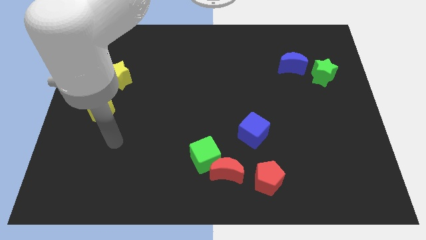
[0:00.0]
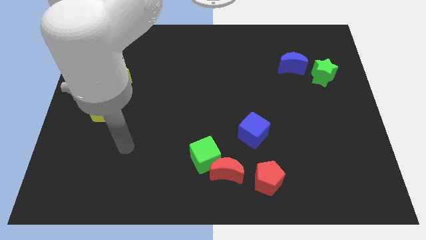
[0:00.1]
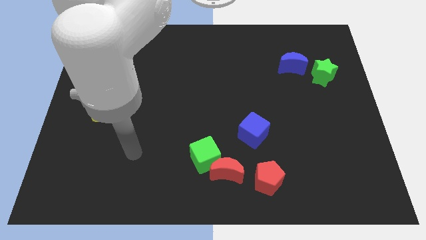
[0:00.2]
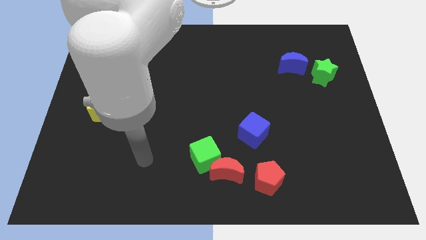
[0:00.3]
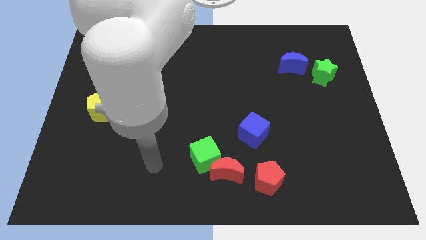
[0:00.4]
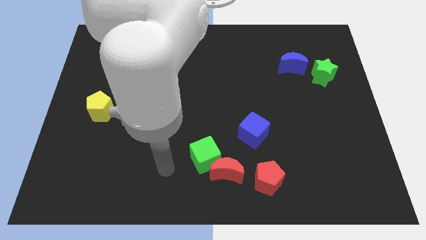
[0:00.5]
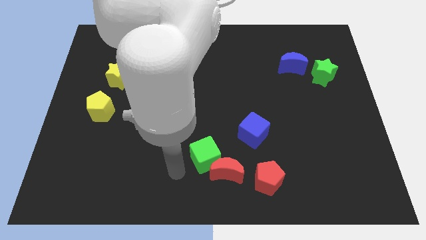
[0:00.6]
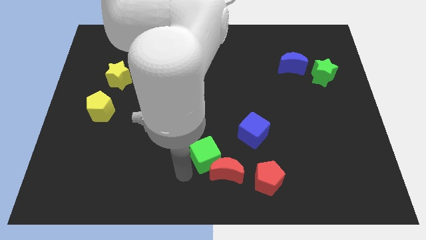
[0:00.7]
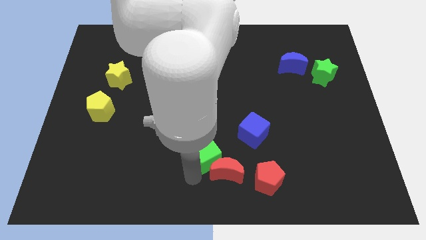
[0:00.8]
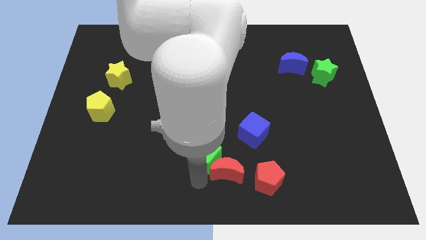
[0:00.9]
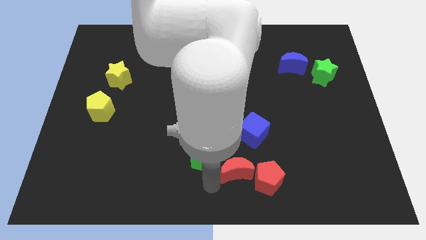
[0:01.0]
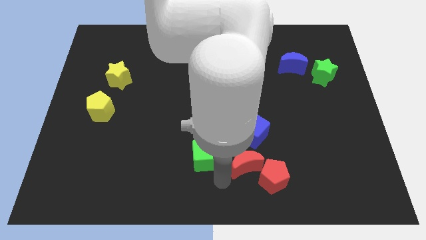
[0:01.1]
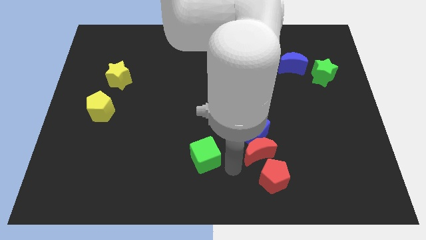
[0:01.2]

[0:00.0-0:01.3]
separate the green cube from the red moon

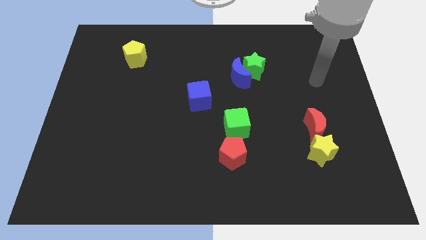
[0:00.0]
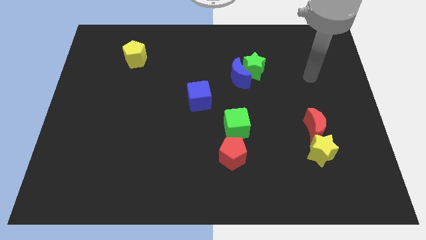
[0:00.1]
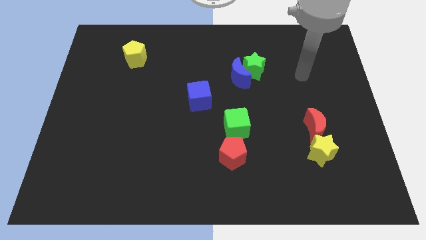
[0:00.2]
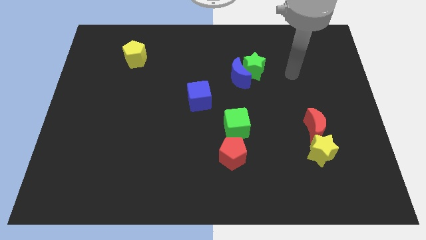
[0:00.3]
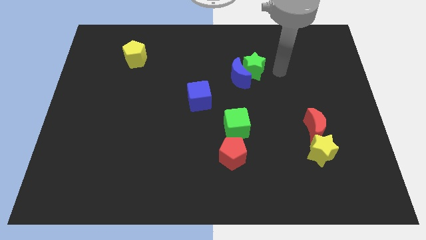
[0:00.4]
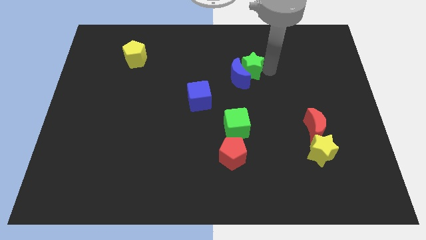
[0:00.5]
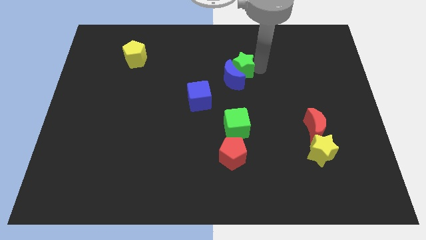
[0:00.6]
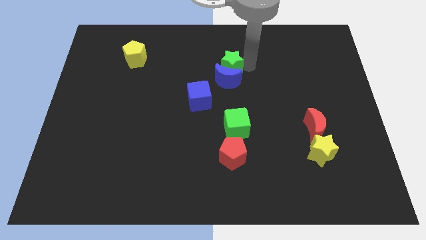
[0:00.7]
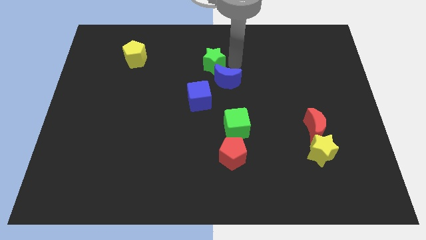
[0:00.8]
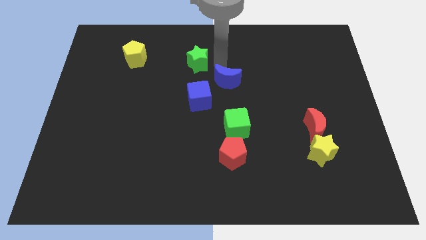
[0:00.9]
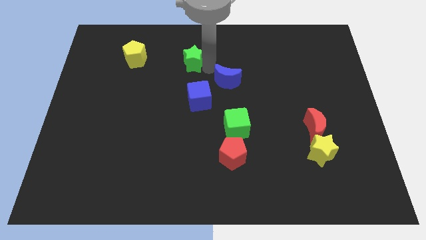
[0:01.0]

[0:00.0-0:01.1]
pull the blue moon apart from the green star

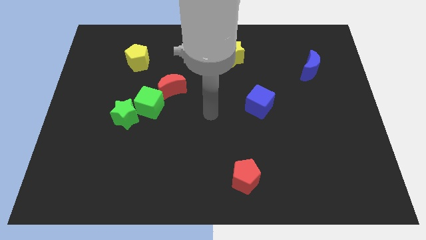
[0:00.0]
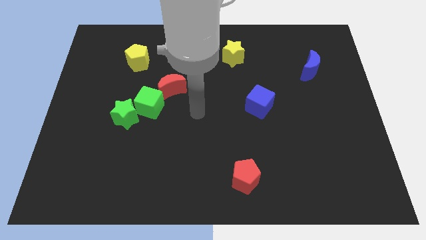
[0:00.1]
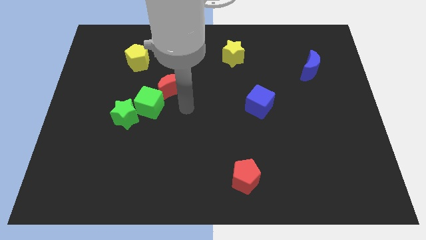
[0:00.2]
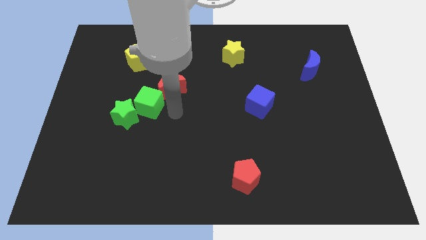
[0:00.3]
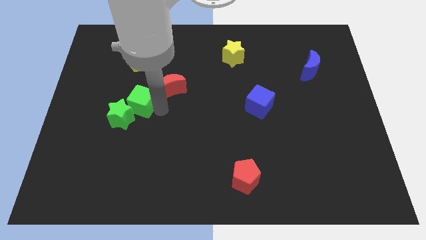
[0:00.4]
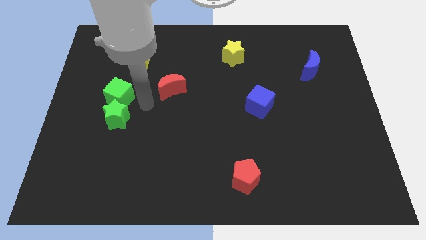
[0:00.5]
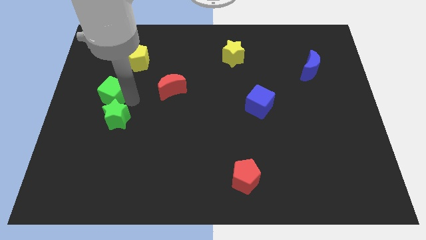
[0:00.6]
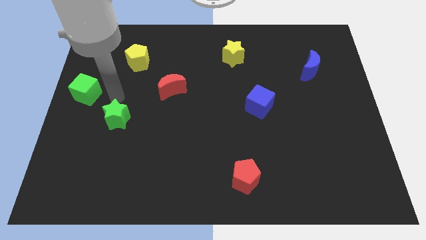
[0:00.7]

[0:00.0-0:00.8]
pull the green star apart from the green cube

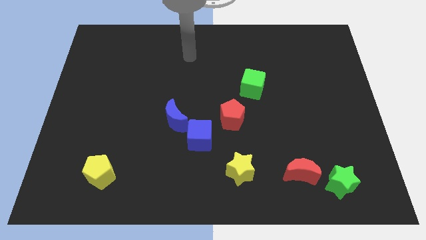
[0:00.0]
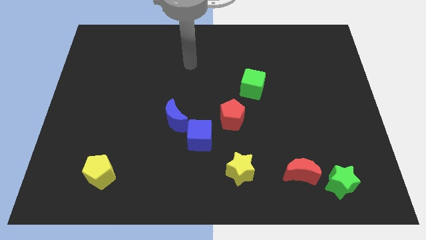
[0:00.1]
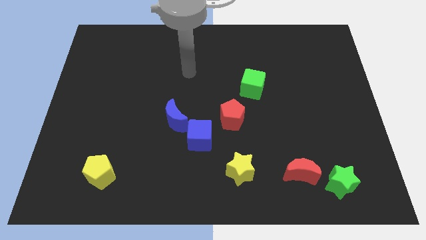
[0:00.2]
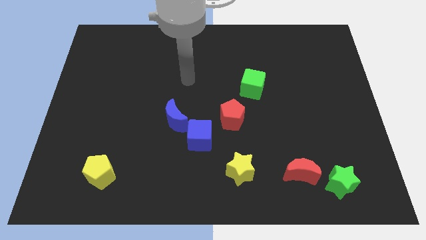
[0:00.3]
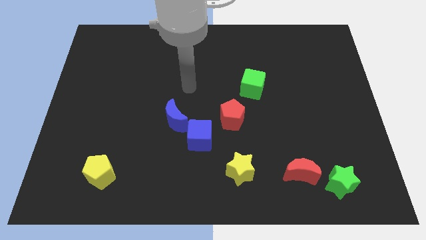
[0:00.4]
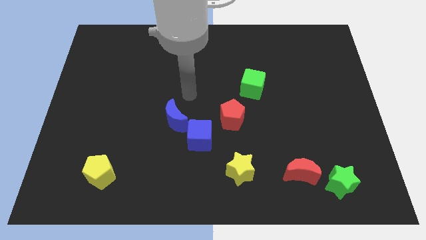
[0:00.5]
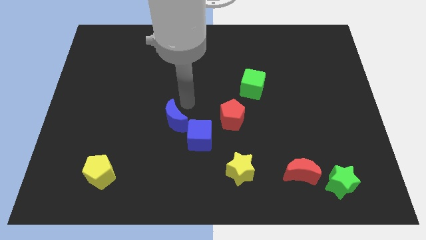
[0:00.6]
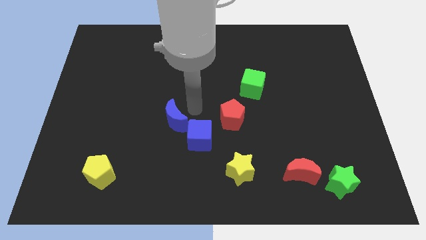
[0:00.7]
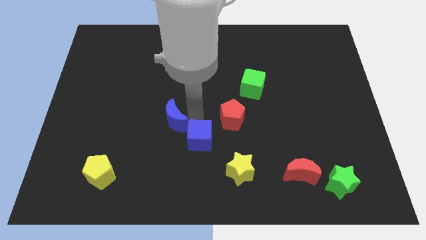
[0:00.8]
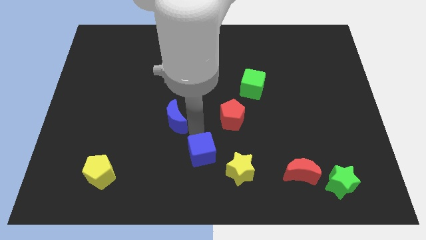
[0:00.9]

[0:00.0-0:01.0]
separate the blue moon from the blue cube

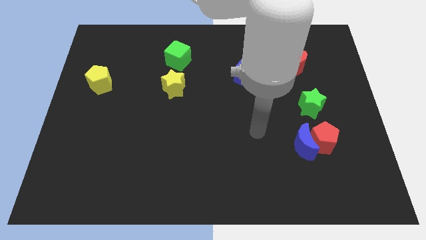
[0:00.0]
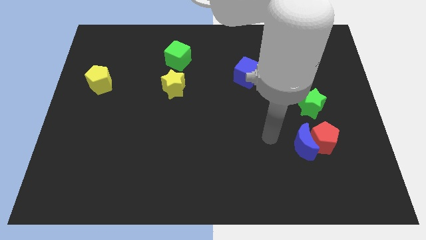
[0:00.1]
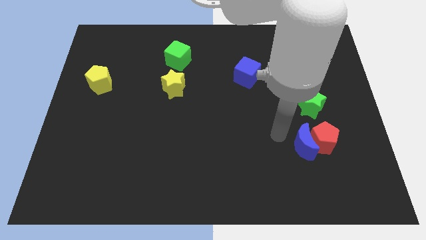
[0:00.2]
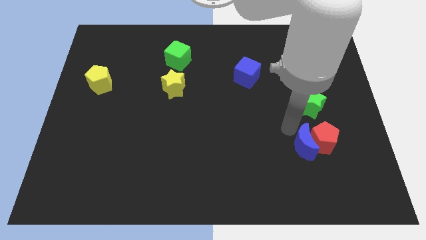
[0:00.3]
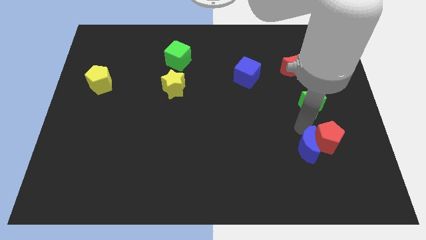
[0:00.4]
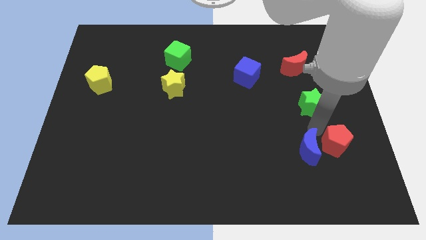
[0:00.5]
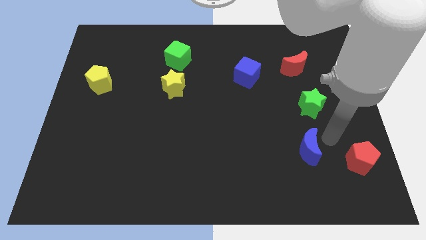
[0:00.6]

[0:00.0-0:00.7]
pull the blue moon apart from the red pentagon

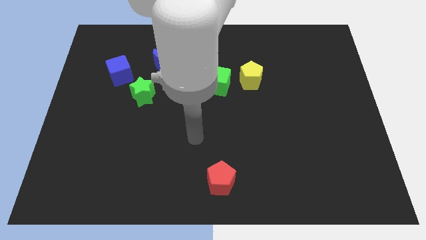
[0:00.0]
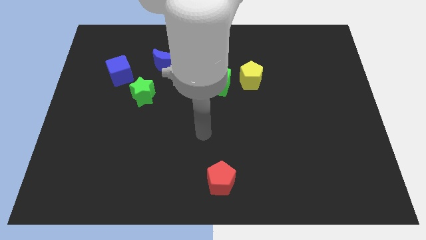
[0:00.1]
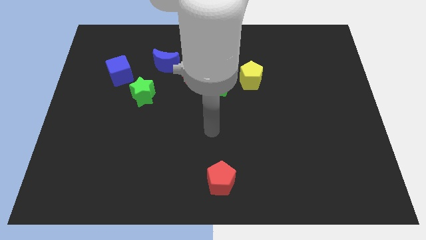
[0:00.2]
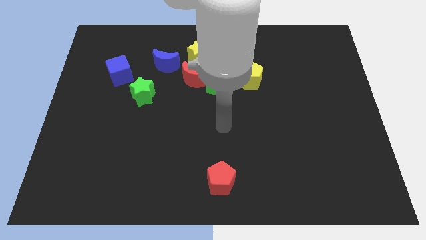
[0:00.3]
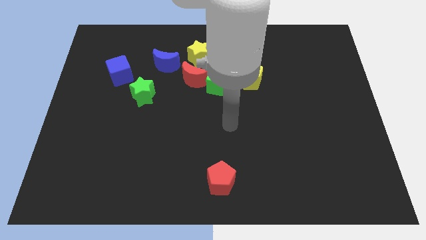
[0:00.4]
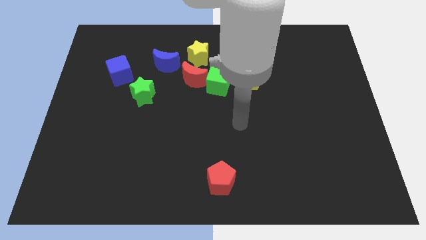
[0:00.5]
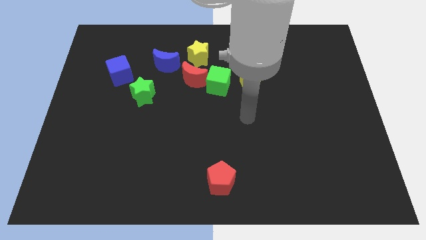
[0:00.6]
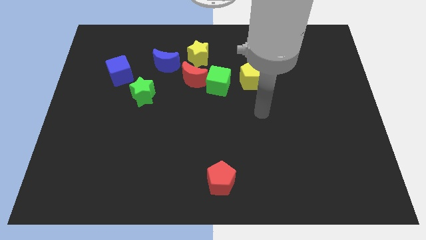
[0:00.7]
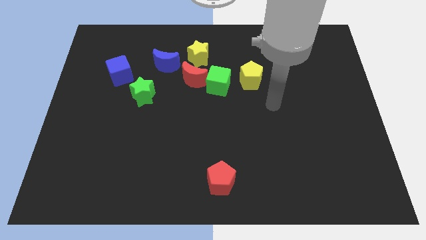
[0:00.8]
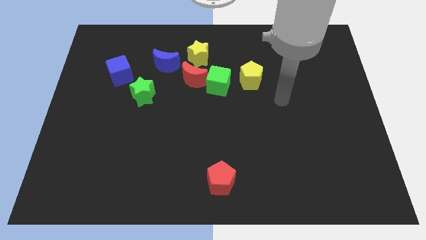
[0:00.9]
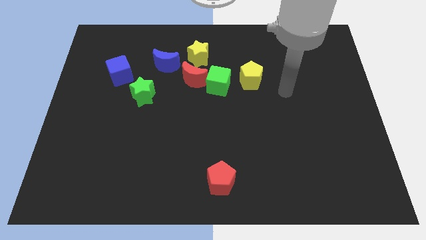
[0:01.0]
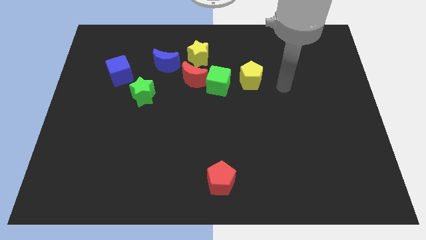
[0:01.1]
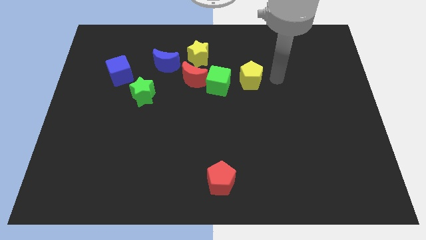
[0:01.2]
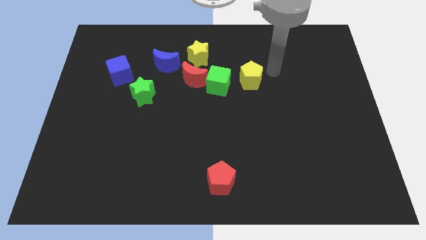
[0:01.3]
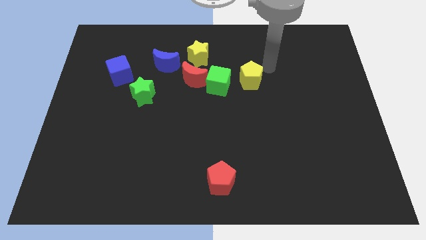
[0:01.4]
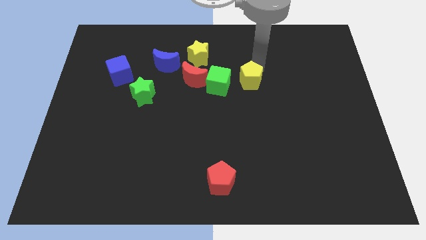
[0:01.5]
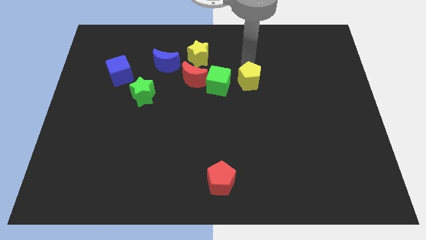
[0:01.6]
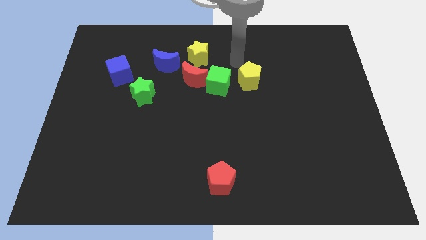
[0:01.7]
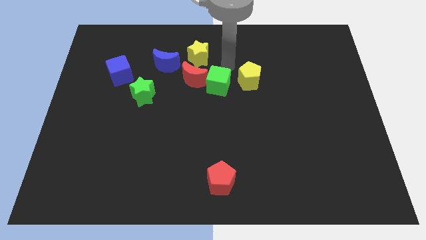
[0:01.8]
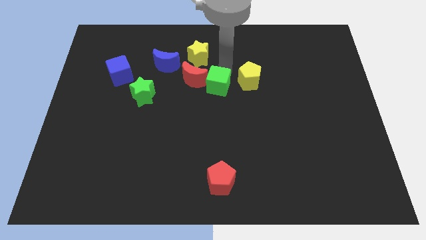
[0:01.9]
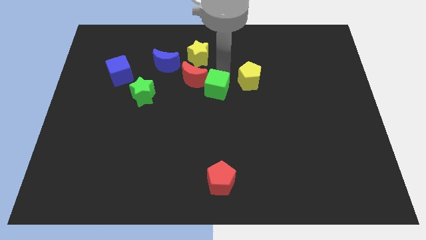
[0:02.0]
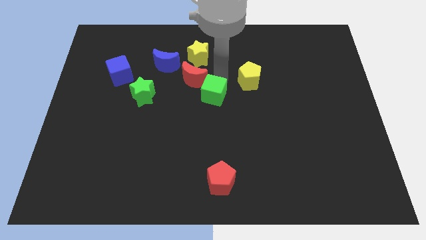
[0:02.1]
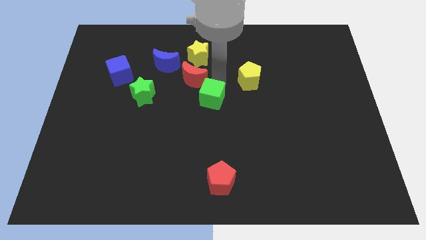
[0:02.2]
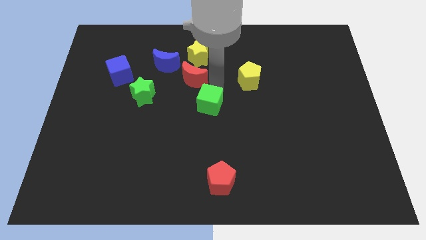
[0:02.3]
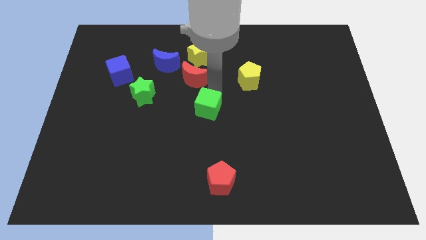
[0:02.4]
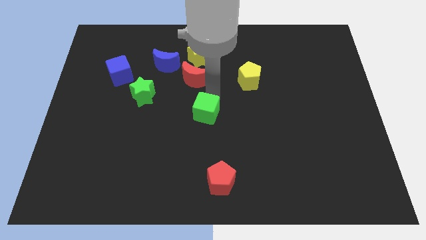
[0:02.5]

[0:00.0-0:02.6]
move the green cube away from the red moon and yellow pentagon

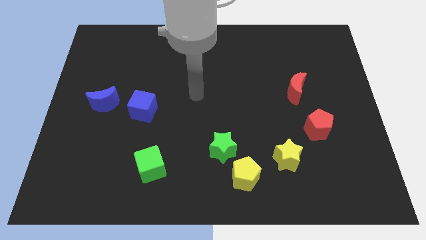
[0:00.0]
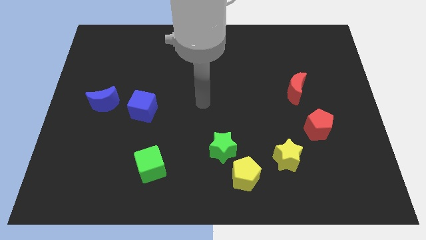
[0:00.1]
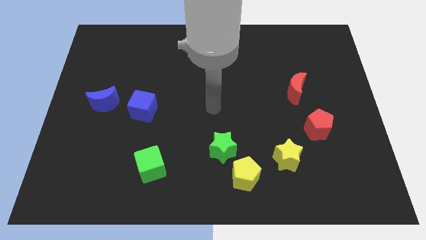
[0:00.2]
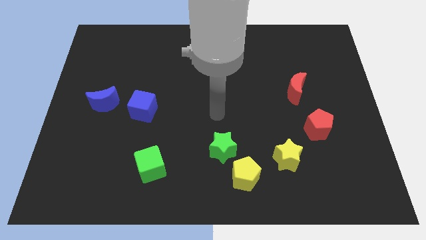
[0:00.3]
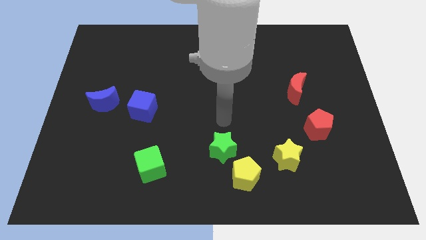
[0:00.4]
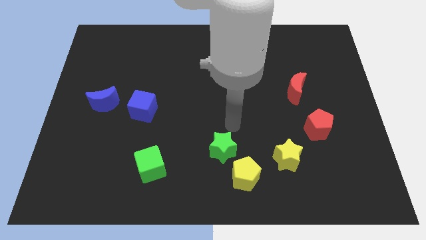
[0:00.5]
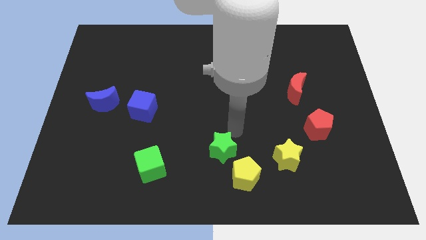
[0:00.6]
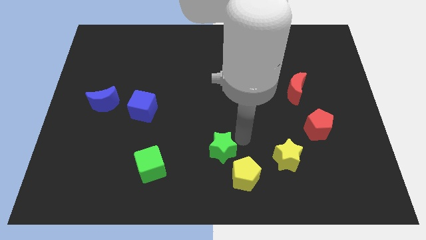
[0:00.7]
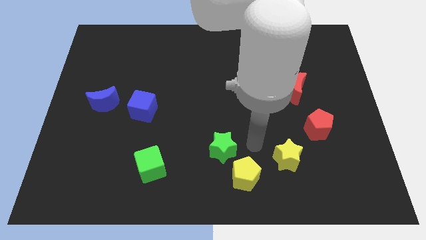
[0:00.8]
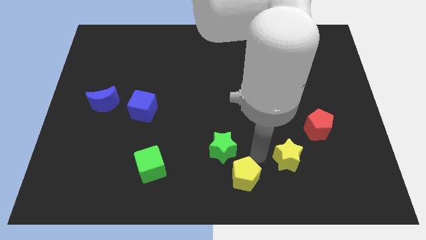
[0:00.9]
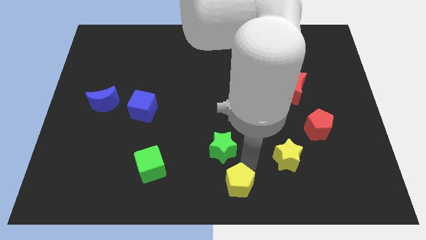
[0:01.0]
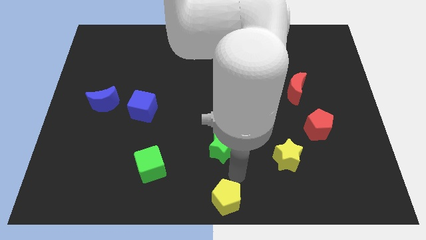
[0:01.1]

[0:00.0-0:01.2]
move the green star away from the yellow pentagon

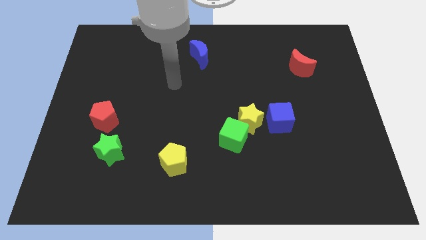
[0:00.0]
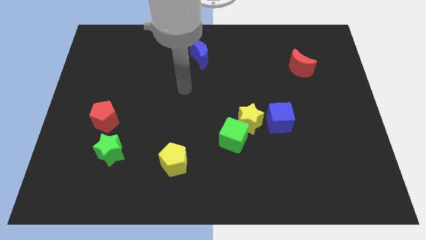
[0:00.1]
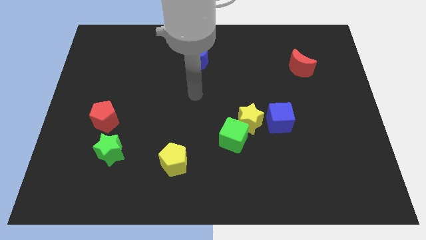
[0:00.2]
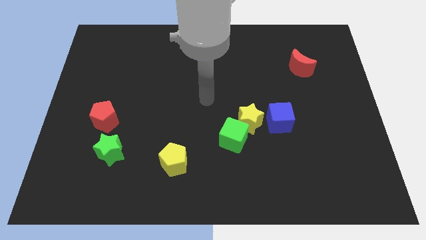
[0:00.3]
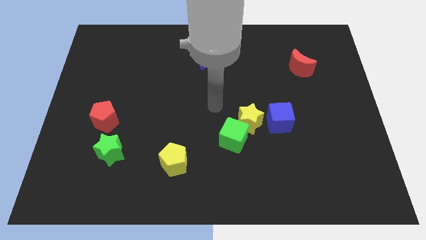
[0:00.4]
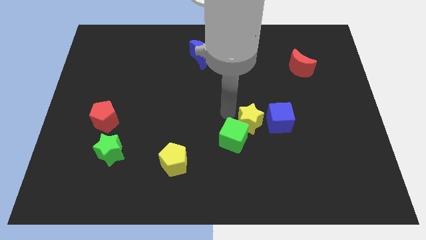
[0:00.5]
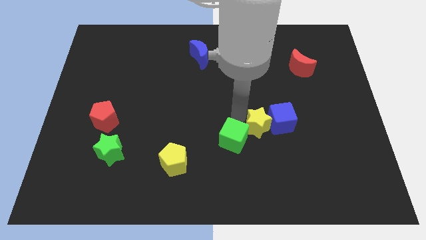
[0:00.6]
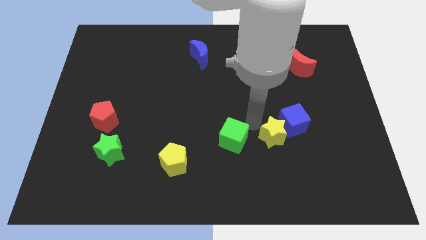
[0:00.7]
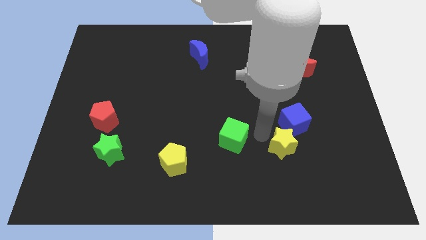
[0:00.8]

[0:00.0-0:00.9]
move the green cube away from the yellow star
